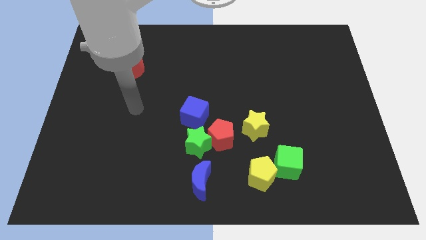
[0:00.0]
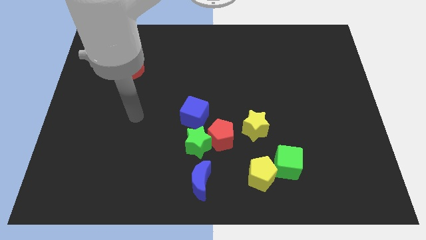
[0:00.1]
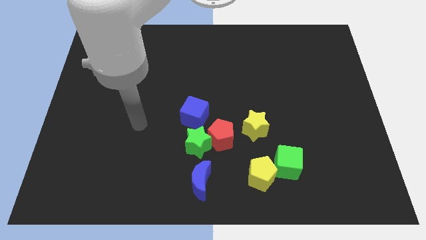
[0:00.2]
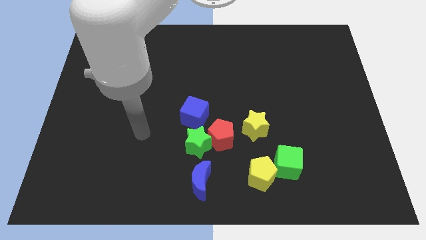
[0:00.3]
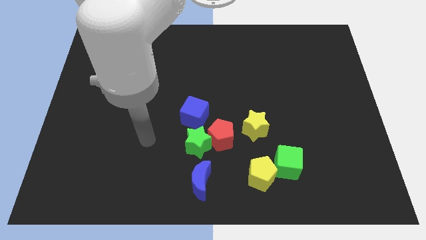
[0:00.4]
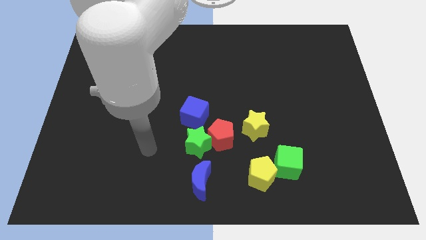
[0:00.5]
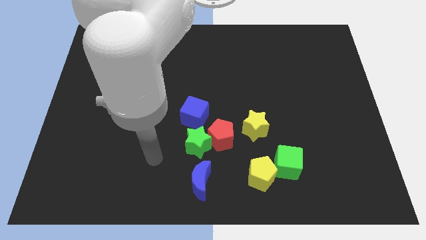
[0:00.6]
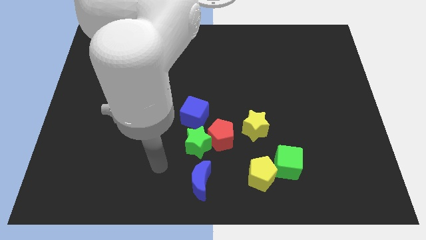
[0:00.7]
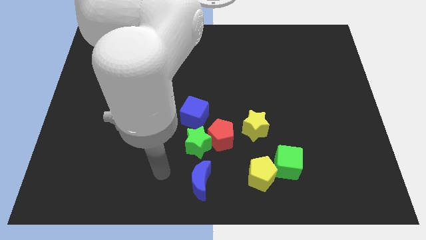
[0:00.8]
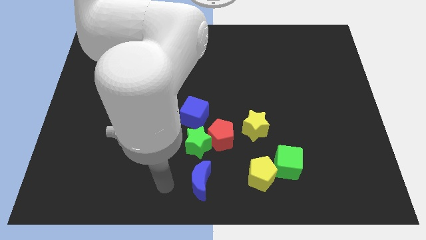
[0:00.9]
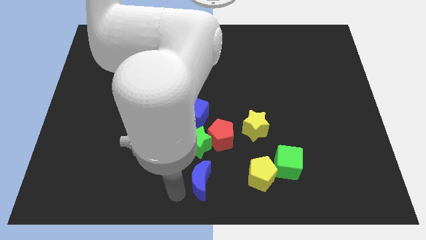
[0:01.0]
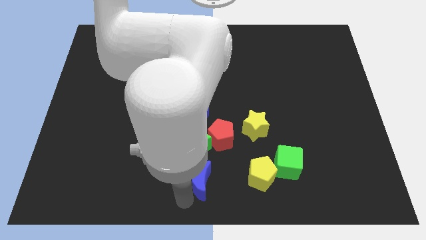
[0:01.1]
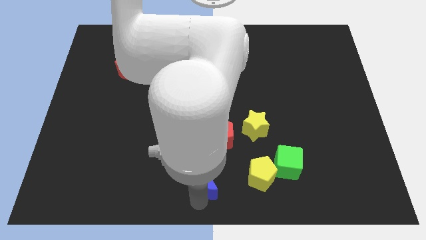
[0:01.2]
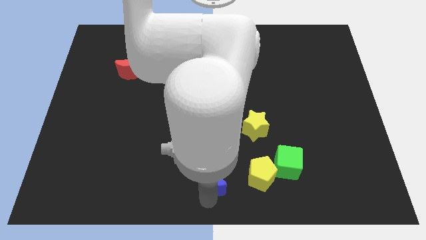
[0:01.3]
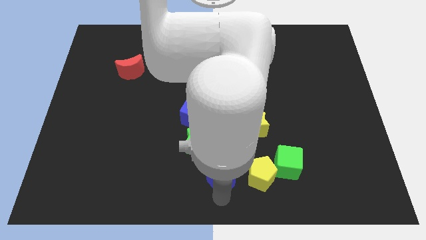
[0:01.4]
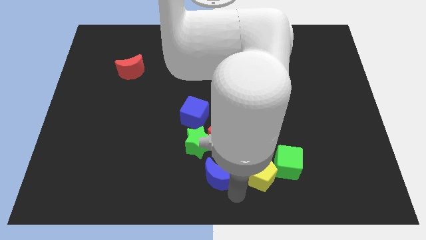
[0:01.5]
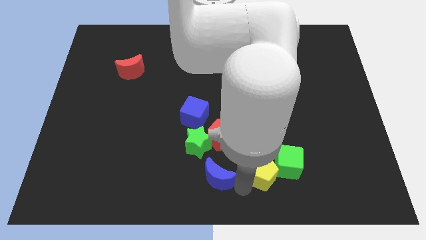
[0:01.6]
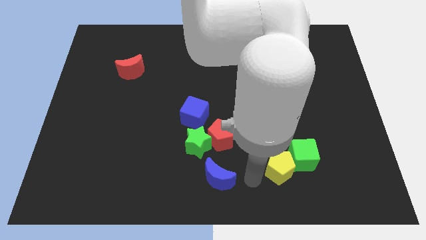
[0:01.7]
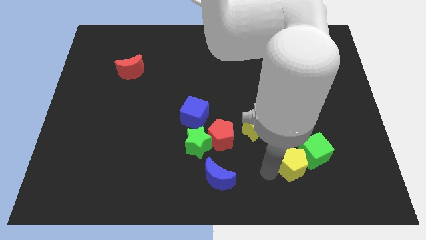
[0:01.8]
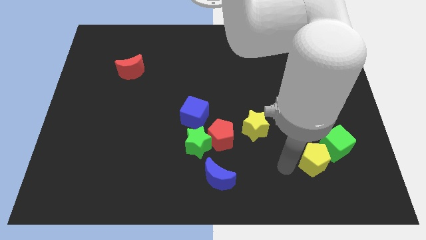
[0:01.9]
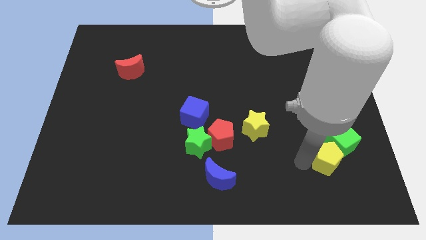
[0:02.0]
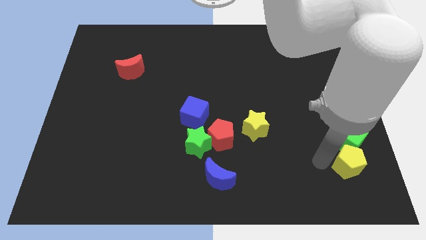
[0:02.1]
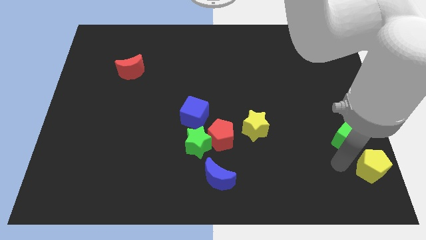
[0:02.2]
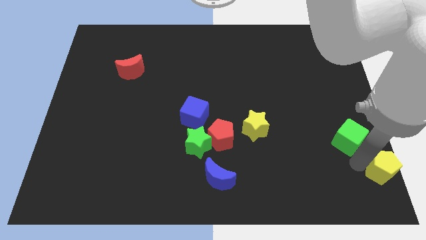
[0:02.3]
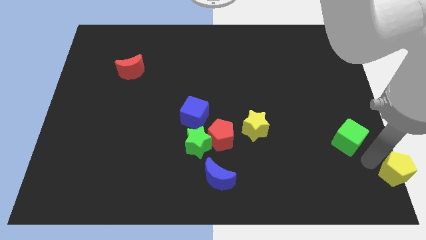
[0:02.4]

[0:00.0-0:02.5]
move the green cube away from the yellow pentagon

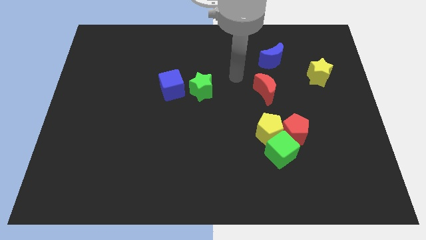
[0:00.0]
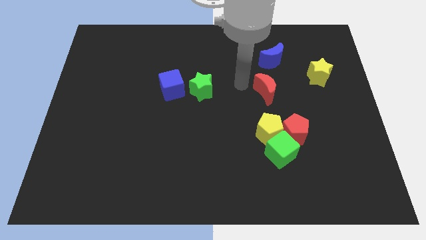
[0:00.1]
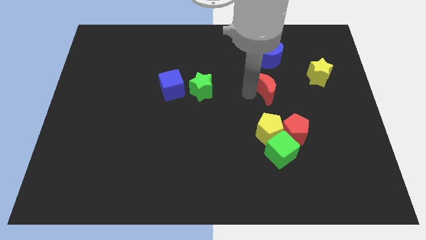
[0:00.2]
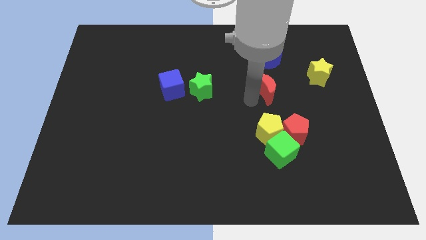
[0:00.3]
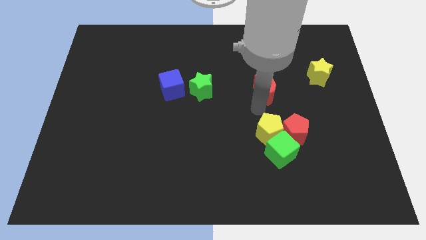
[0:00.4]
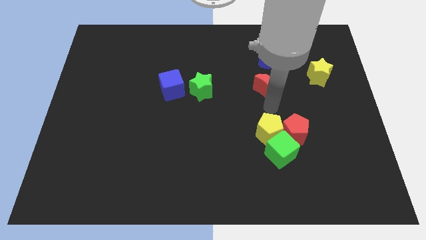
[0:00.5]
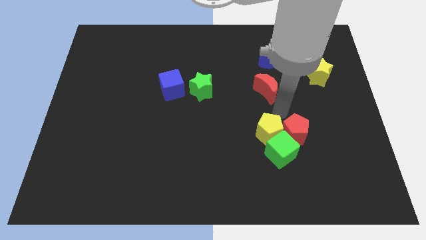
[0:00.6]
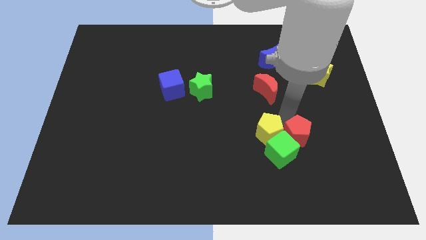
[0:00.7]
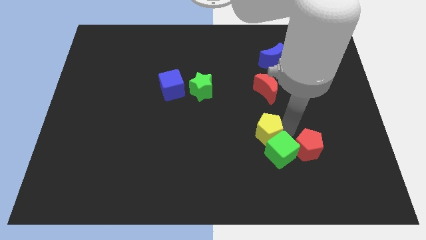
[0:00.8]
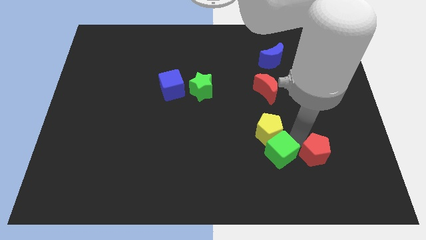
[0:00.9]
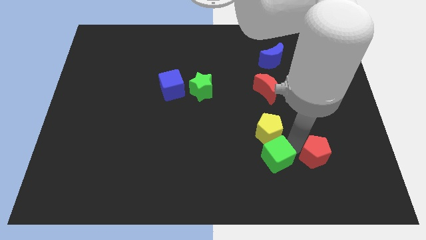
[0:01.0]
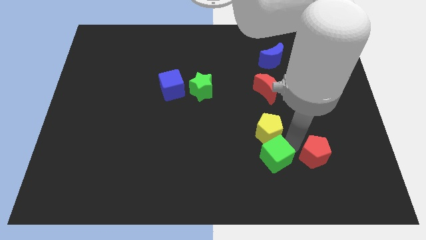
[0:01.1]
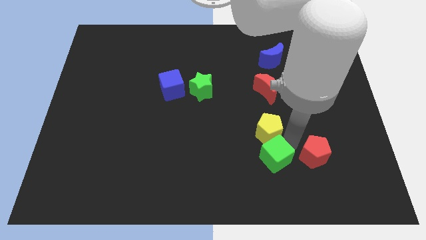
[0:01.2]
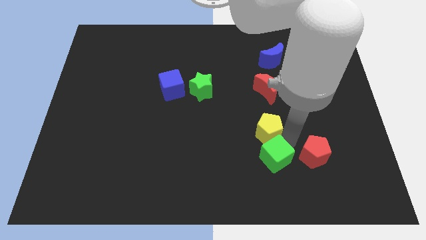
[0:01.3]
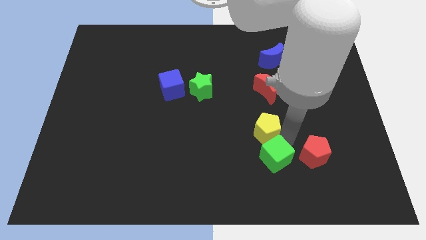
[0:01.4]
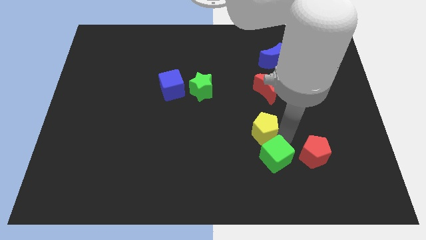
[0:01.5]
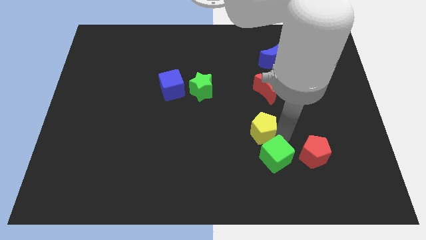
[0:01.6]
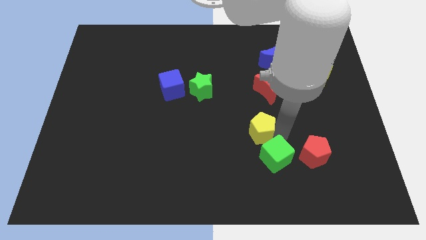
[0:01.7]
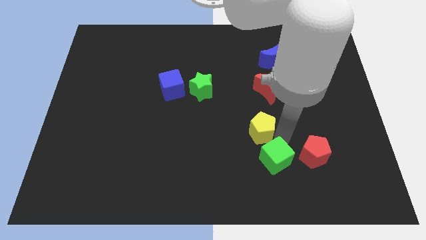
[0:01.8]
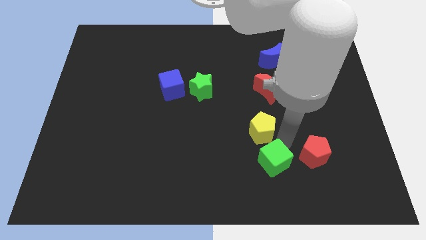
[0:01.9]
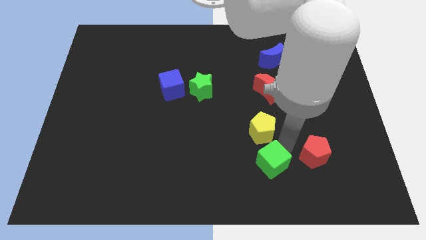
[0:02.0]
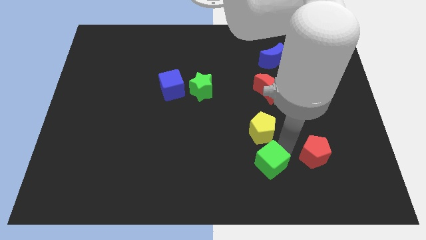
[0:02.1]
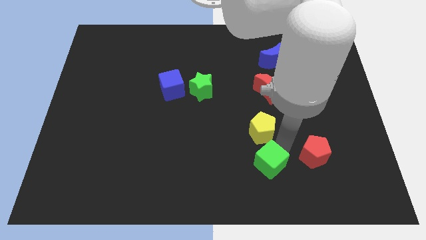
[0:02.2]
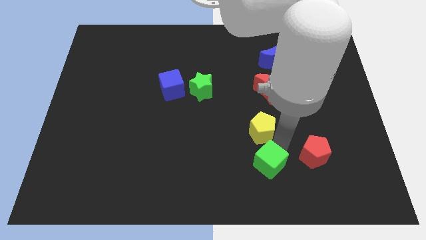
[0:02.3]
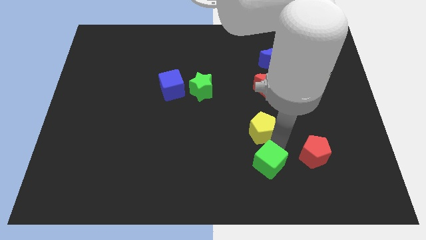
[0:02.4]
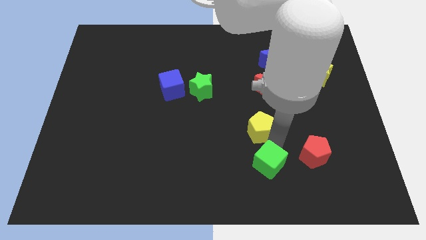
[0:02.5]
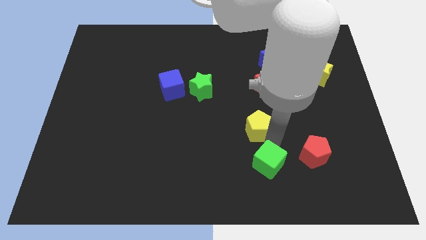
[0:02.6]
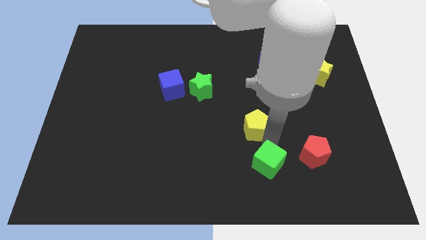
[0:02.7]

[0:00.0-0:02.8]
separate the yellow pentagon from the red pentagon and green cube

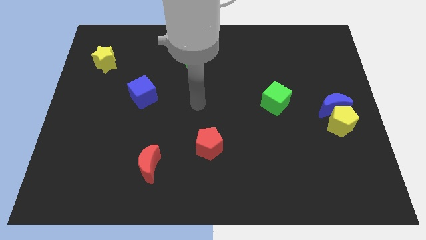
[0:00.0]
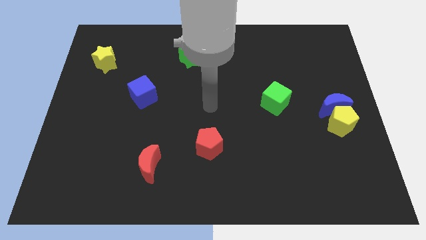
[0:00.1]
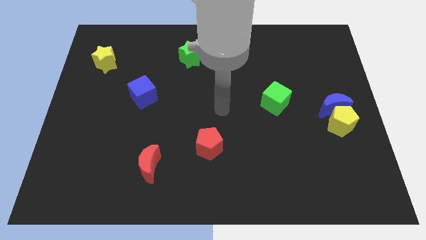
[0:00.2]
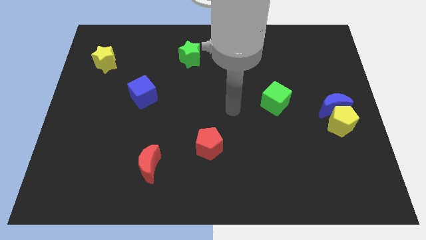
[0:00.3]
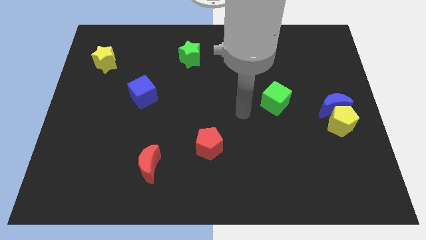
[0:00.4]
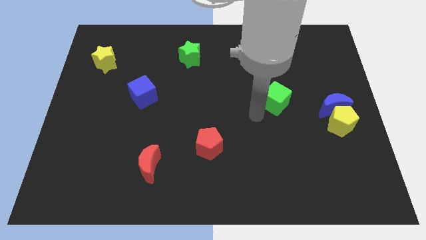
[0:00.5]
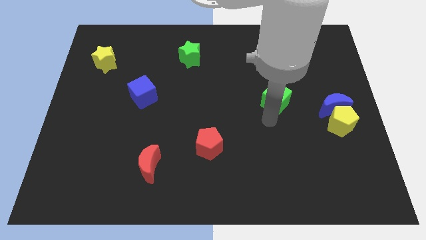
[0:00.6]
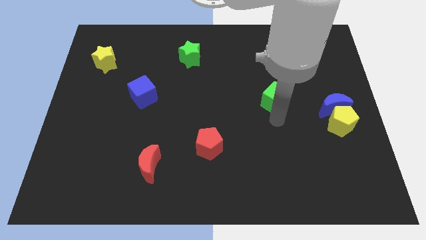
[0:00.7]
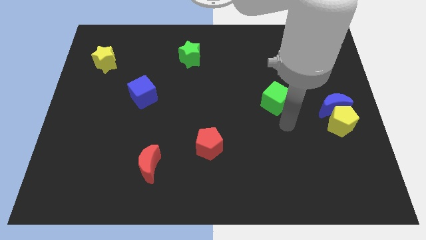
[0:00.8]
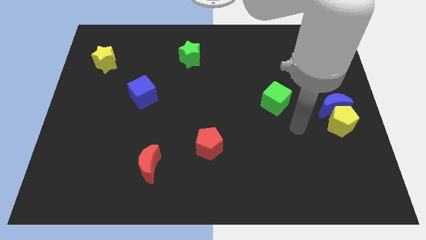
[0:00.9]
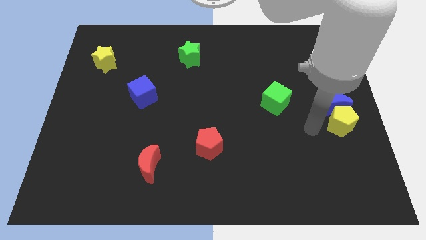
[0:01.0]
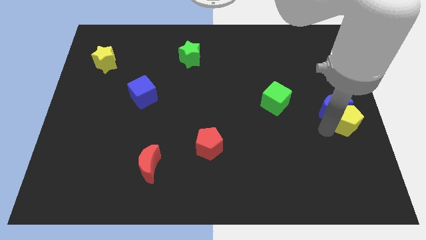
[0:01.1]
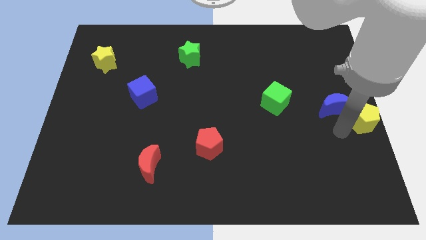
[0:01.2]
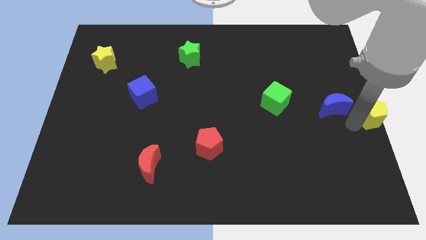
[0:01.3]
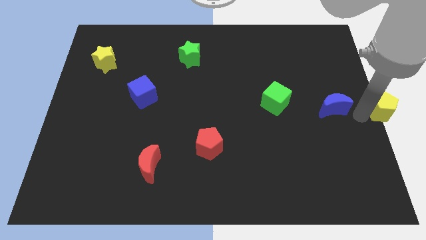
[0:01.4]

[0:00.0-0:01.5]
separate the blue moon from the yellow pentagon

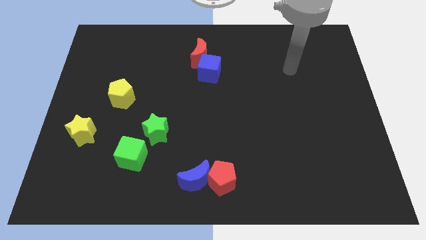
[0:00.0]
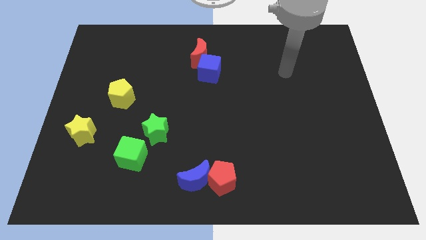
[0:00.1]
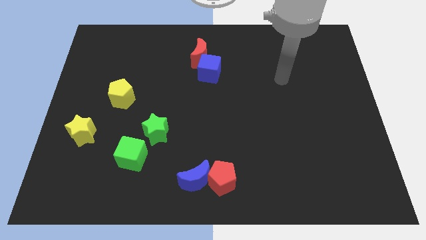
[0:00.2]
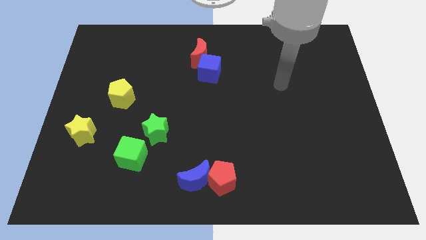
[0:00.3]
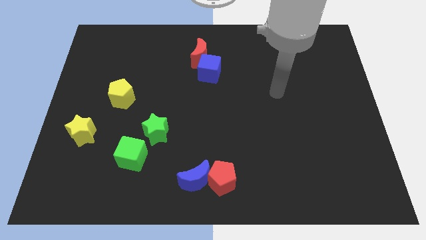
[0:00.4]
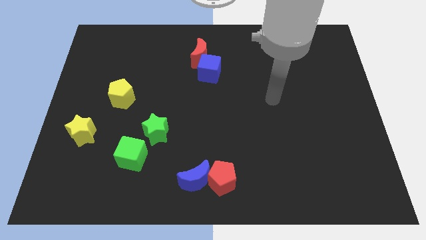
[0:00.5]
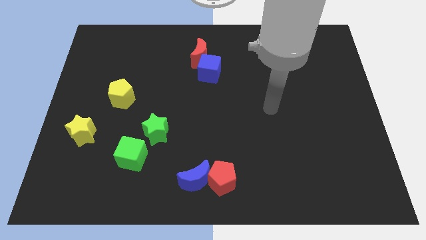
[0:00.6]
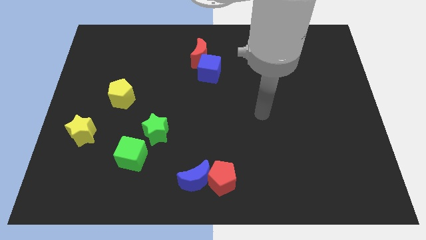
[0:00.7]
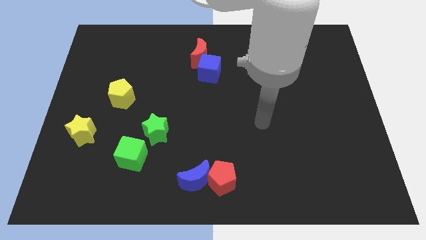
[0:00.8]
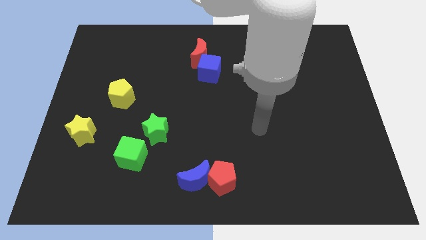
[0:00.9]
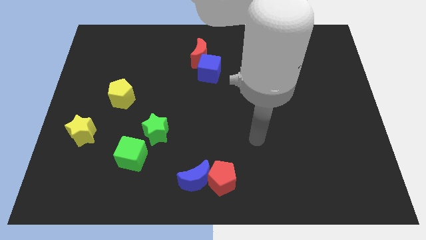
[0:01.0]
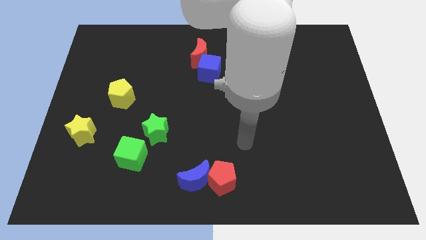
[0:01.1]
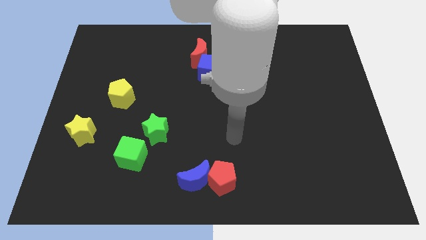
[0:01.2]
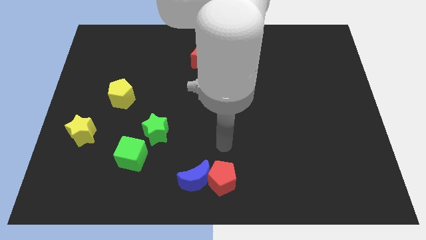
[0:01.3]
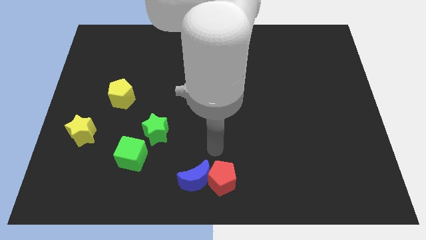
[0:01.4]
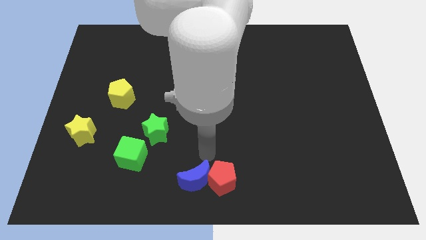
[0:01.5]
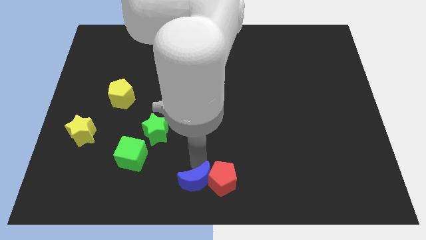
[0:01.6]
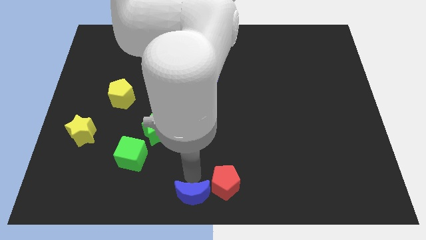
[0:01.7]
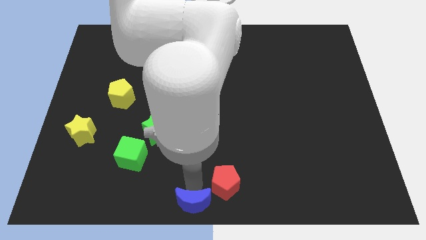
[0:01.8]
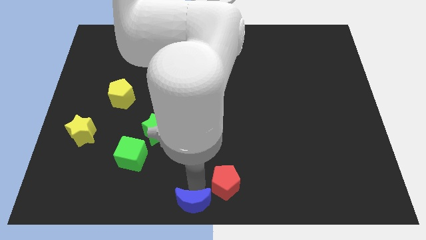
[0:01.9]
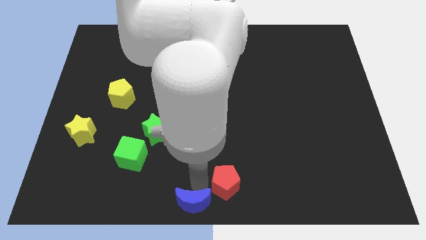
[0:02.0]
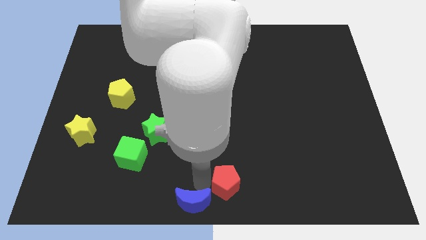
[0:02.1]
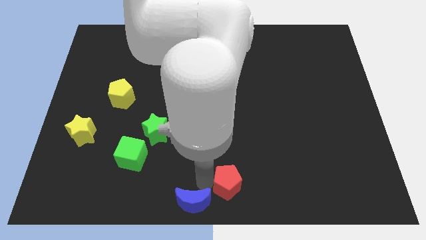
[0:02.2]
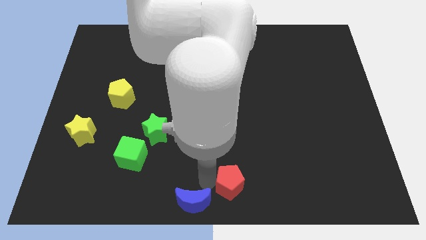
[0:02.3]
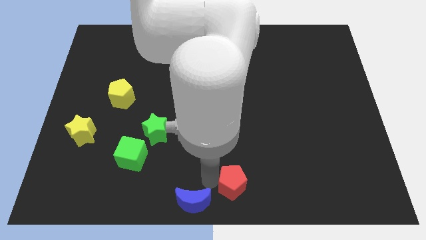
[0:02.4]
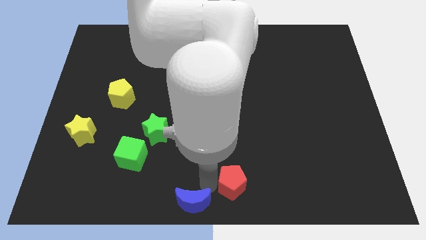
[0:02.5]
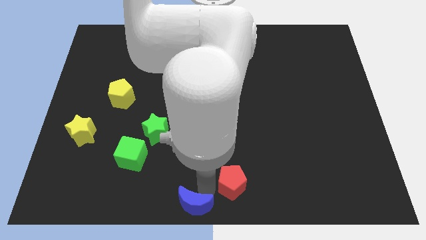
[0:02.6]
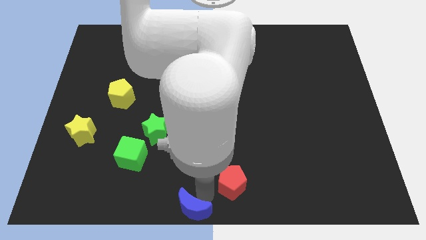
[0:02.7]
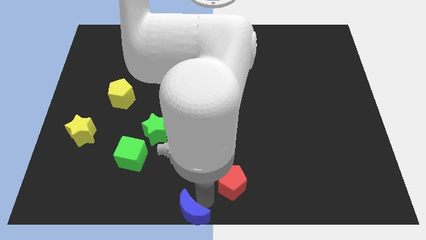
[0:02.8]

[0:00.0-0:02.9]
pull the red pentagon apart from the blue moon
